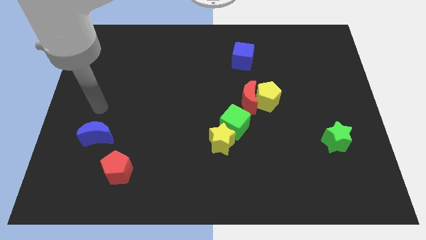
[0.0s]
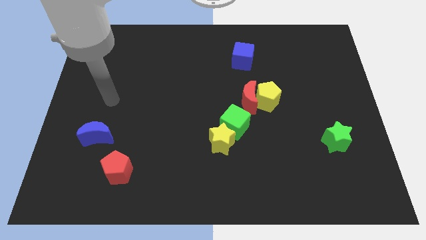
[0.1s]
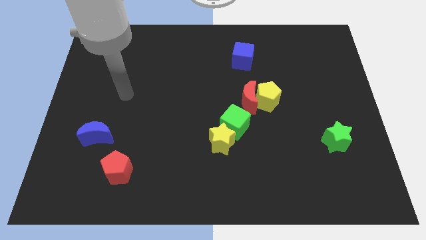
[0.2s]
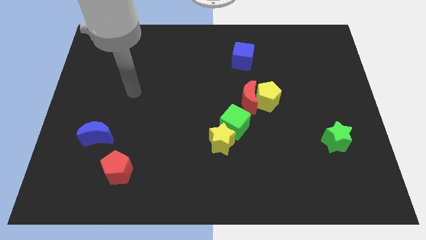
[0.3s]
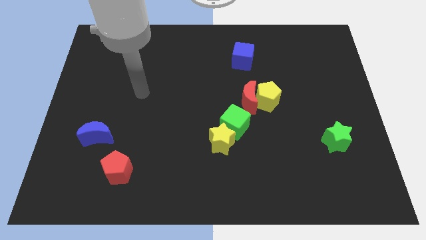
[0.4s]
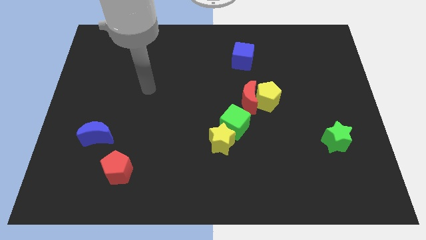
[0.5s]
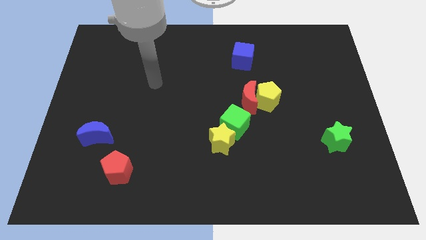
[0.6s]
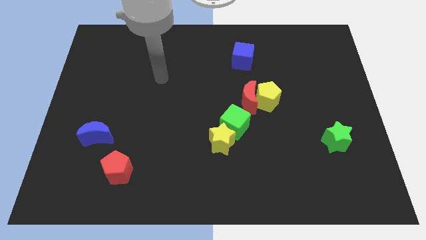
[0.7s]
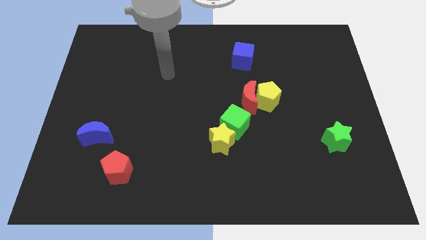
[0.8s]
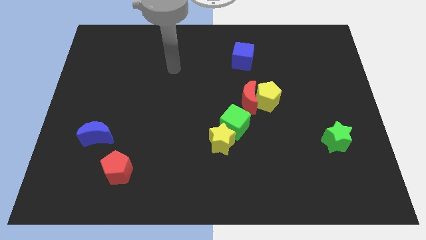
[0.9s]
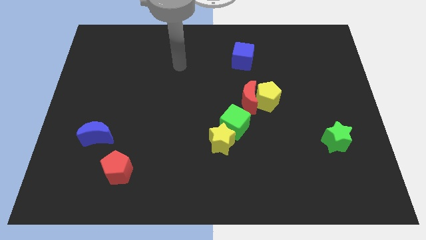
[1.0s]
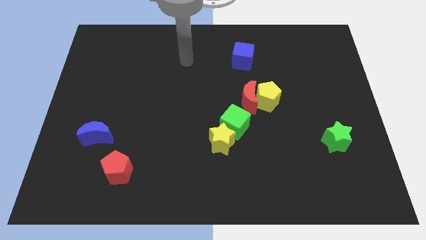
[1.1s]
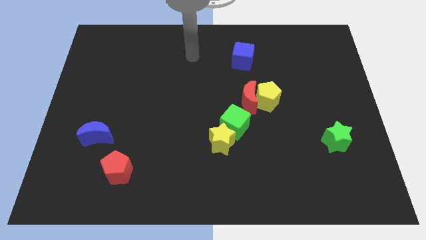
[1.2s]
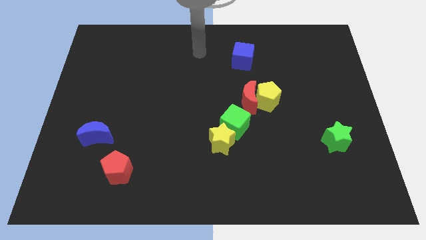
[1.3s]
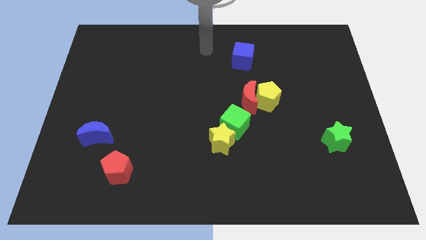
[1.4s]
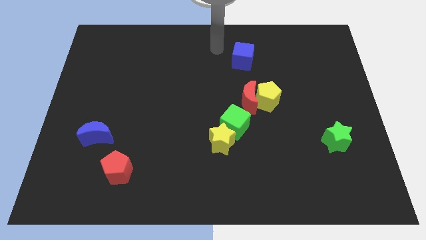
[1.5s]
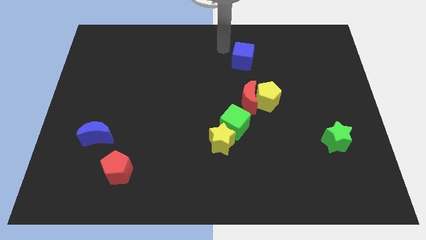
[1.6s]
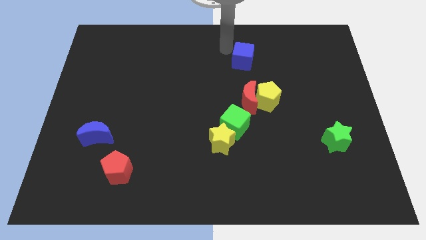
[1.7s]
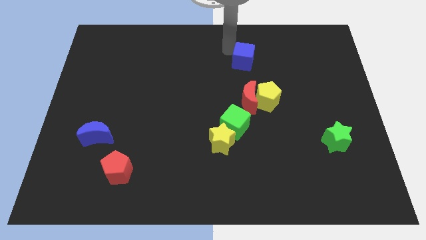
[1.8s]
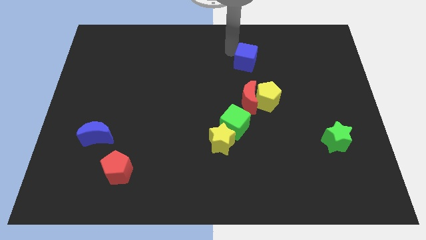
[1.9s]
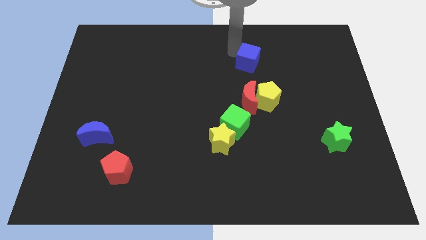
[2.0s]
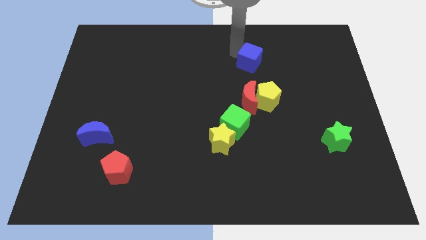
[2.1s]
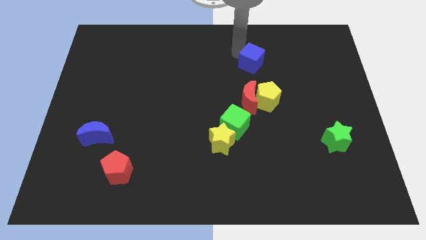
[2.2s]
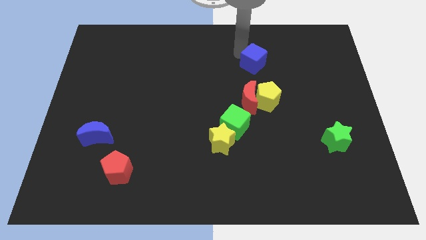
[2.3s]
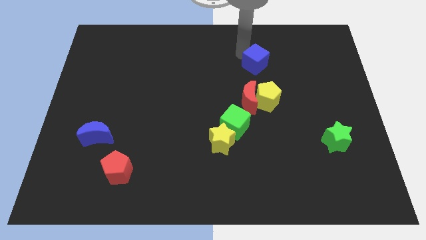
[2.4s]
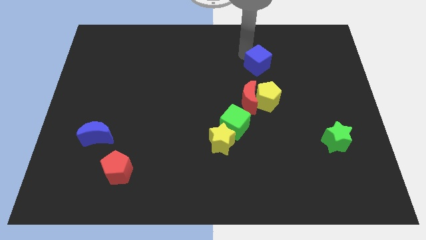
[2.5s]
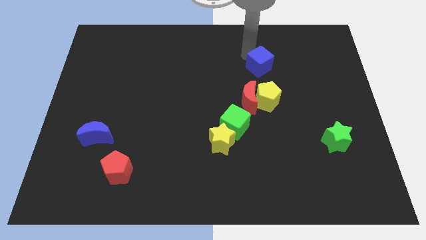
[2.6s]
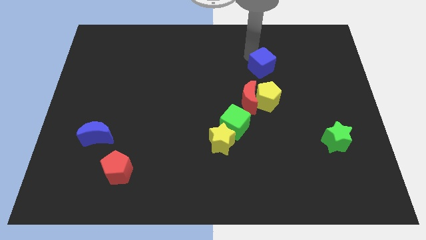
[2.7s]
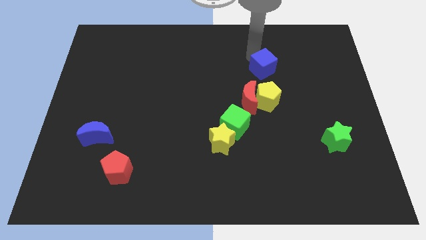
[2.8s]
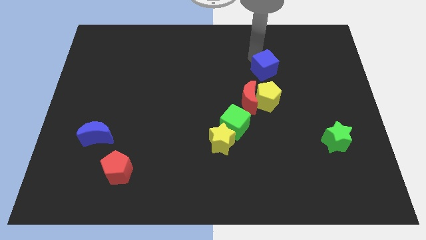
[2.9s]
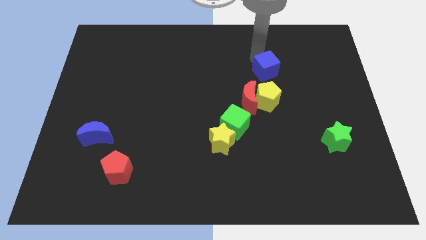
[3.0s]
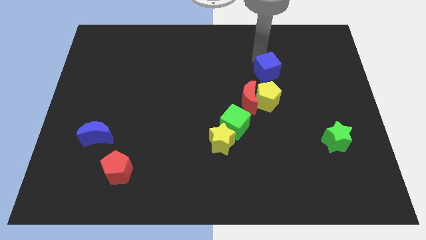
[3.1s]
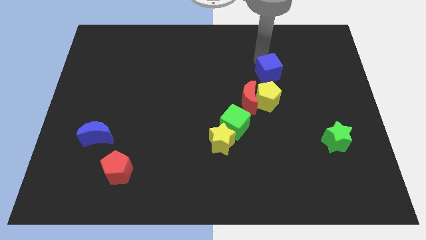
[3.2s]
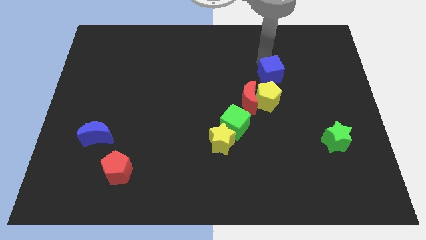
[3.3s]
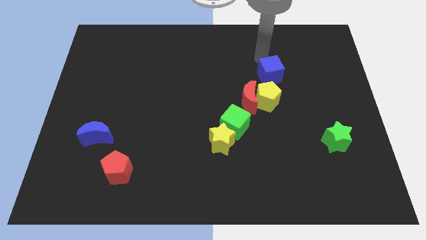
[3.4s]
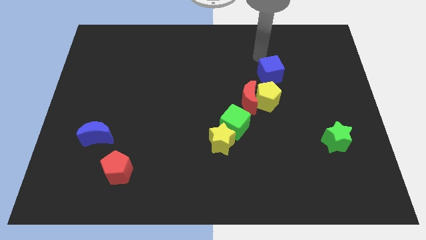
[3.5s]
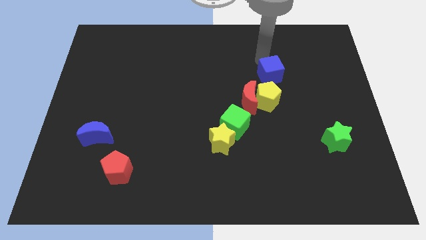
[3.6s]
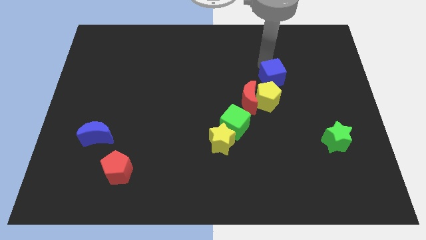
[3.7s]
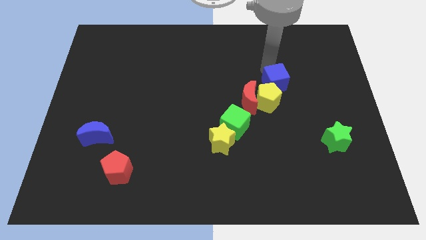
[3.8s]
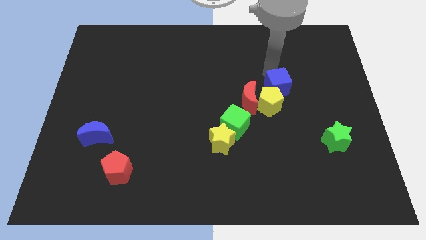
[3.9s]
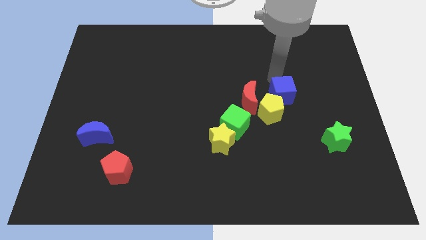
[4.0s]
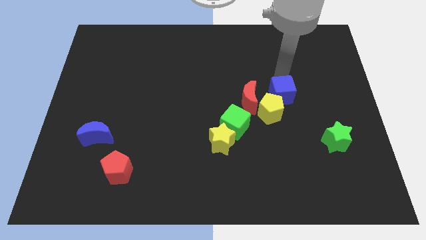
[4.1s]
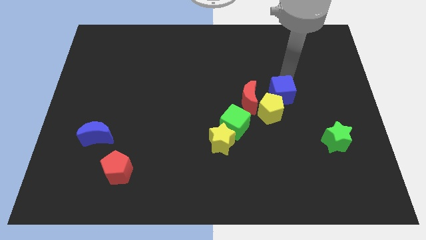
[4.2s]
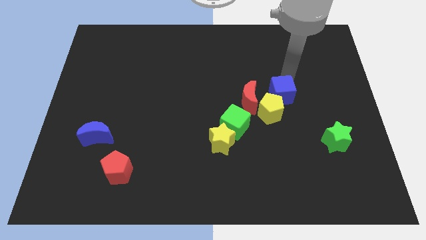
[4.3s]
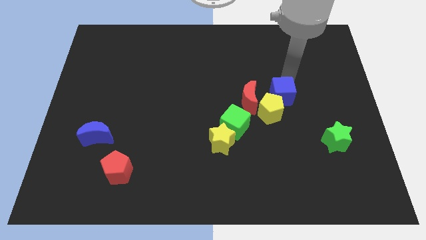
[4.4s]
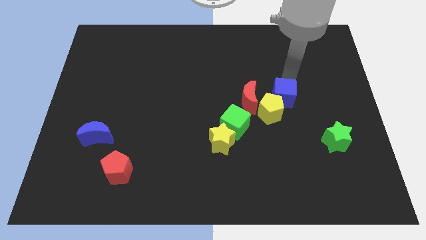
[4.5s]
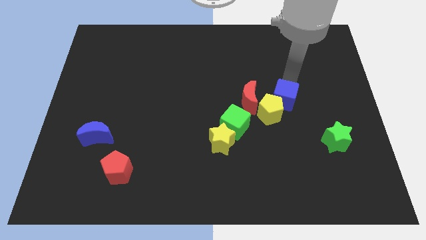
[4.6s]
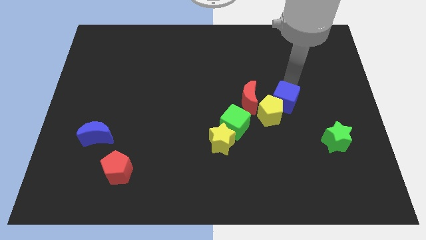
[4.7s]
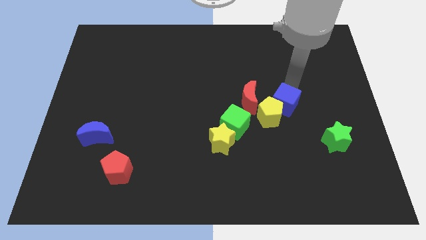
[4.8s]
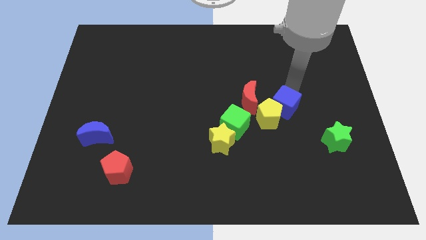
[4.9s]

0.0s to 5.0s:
put the blue cube diagonally down and to the right of the red moon

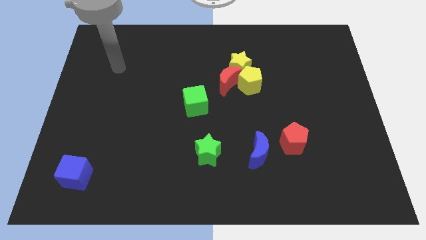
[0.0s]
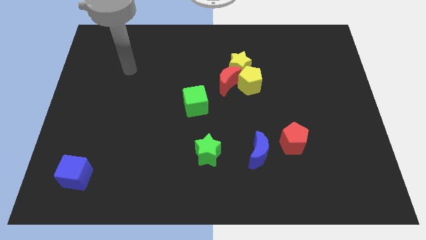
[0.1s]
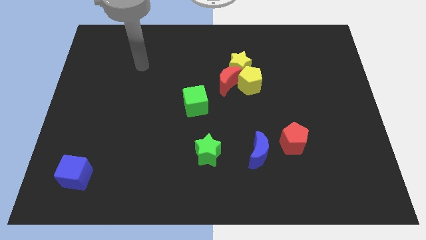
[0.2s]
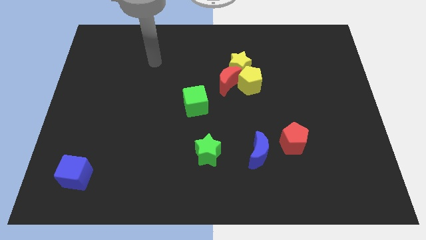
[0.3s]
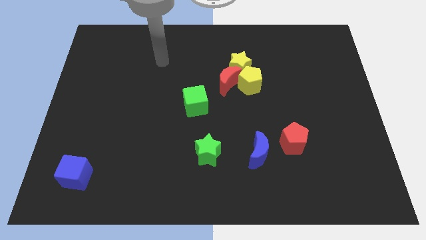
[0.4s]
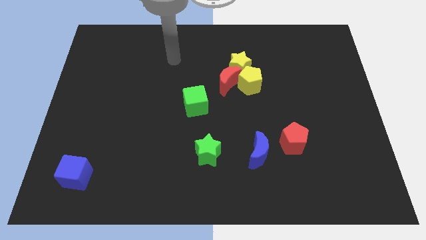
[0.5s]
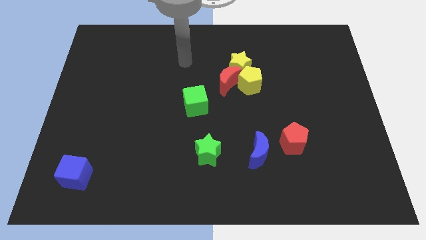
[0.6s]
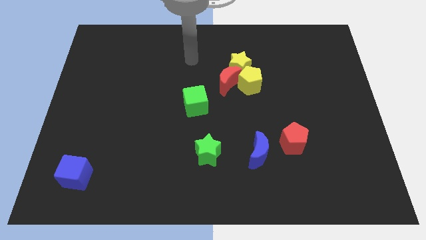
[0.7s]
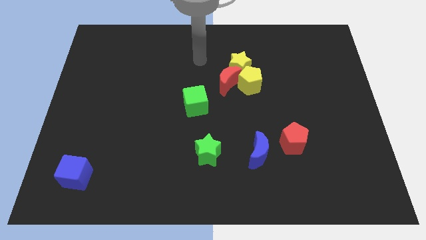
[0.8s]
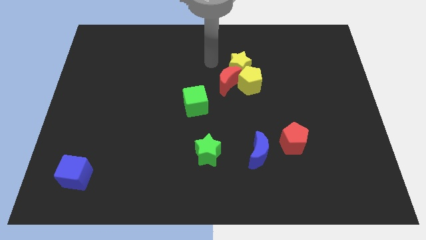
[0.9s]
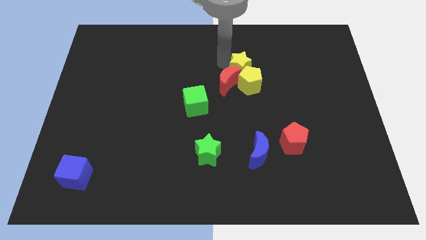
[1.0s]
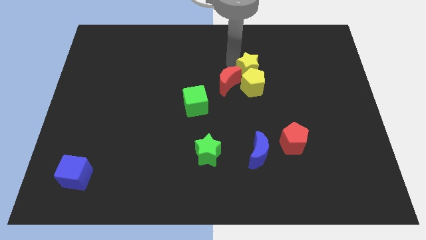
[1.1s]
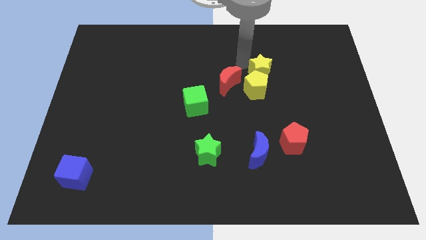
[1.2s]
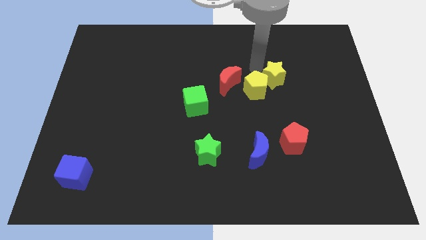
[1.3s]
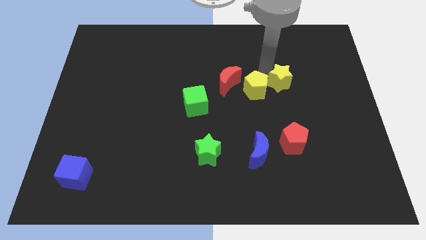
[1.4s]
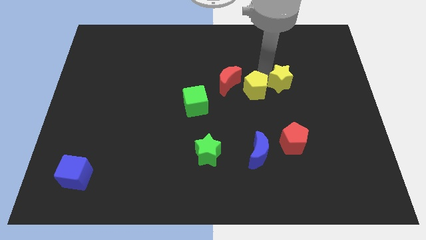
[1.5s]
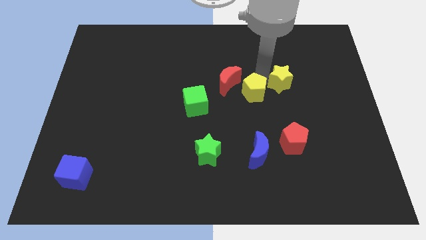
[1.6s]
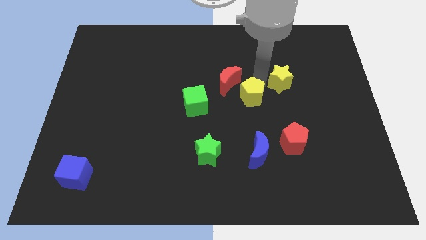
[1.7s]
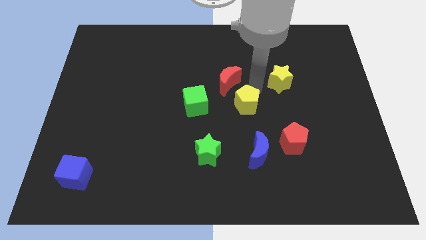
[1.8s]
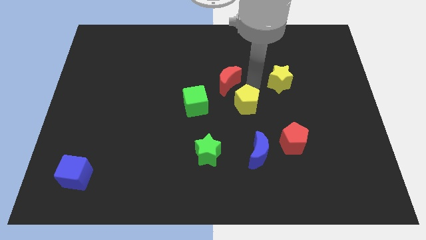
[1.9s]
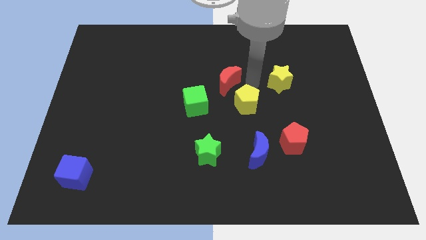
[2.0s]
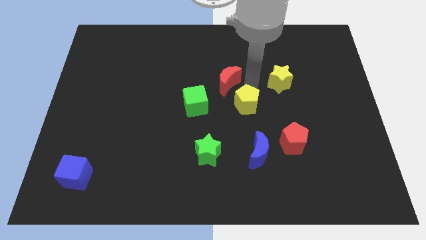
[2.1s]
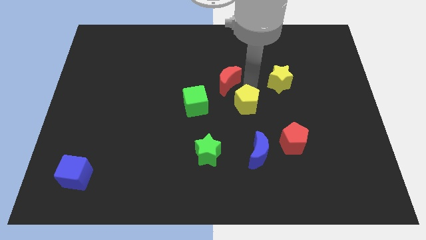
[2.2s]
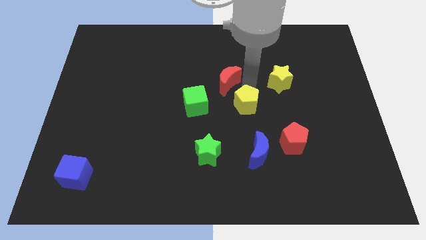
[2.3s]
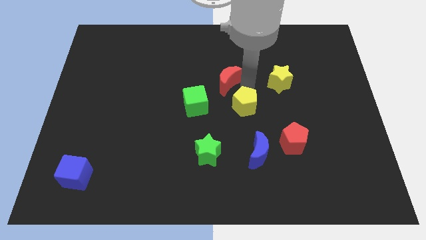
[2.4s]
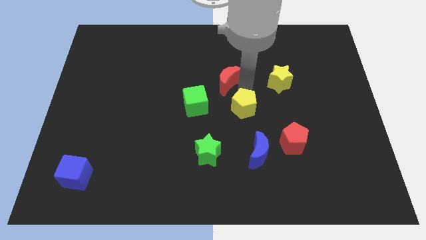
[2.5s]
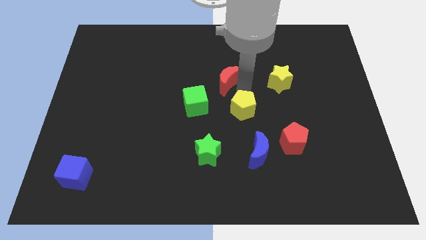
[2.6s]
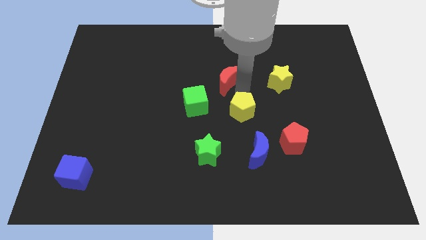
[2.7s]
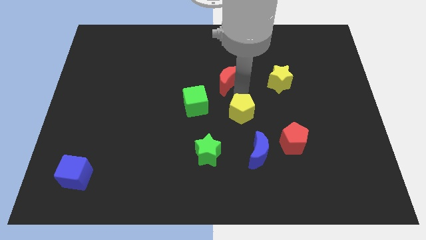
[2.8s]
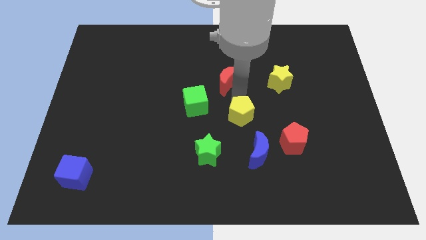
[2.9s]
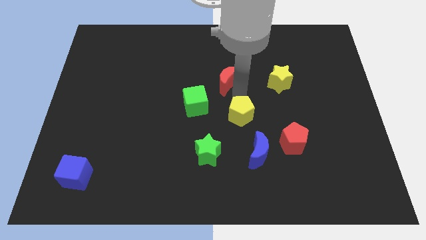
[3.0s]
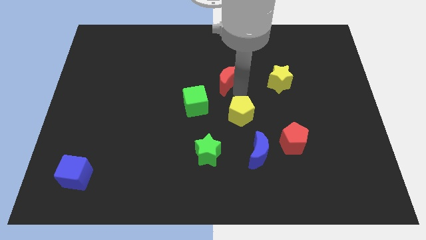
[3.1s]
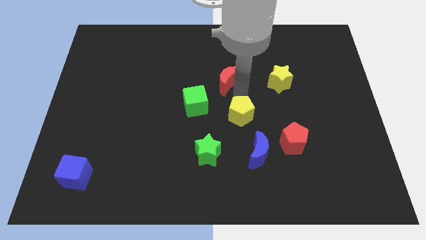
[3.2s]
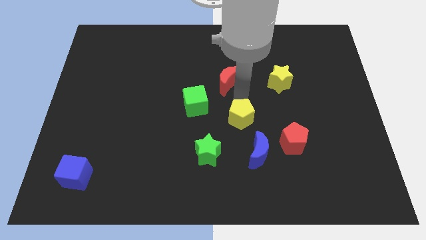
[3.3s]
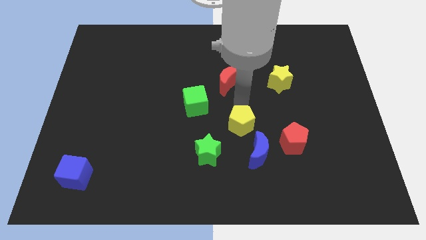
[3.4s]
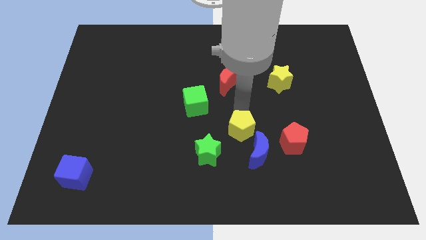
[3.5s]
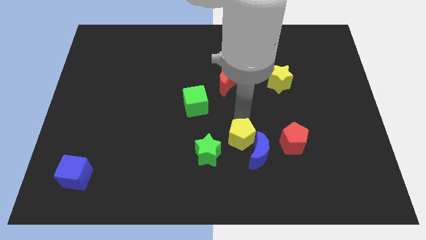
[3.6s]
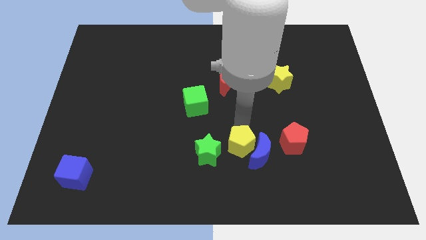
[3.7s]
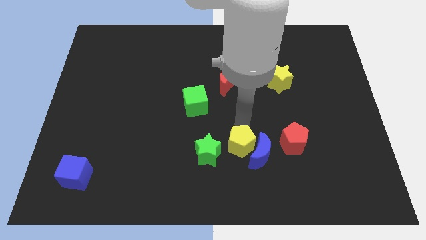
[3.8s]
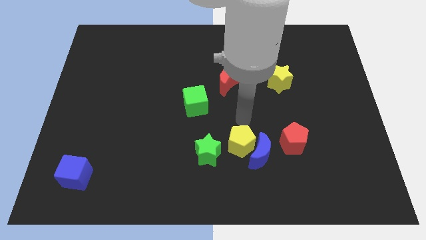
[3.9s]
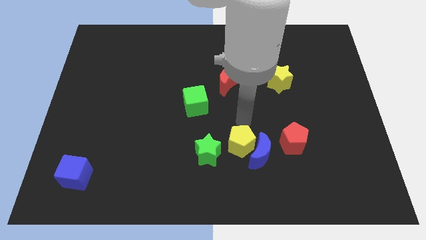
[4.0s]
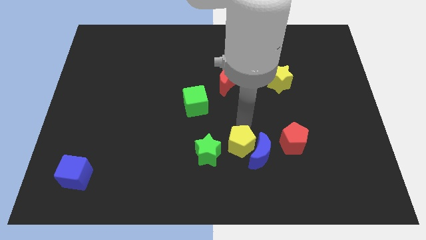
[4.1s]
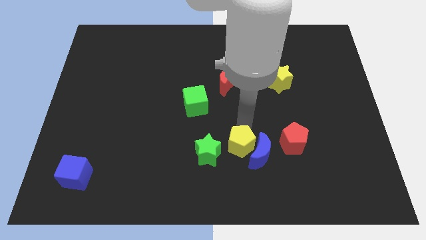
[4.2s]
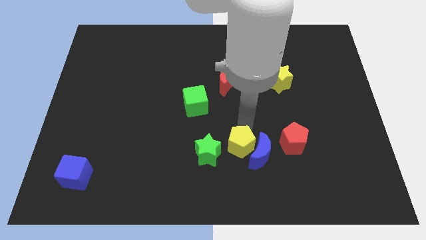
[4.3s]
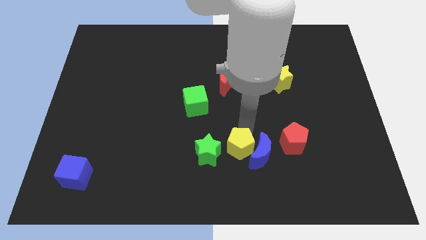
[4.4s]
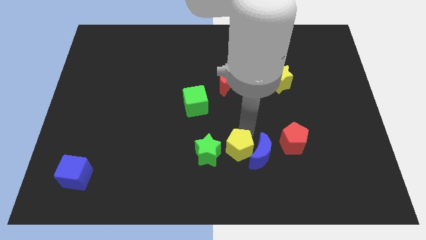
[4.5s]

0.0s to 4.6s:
slide the yellow pentagon to the bottom left of the blue moon
